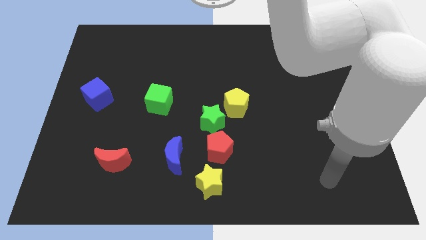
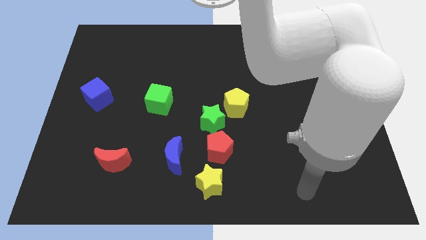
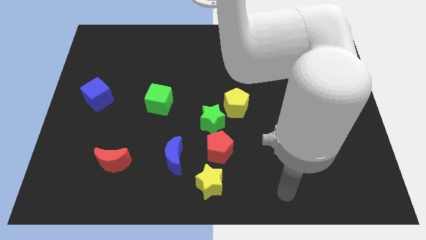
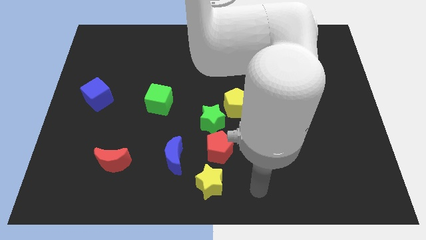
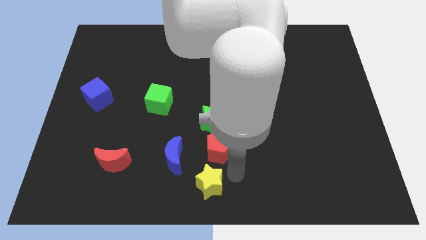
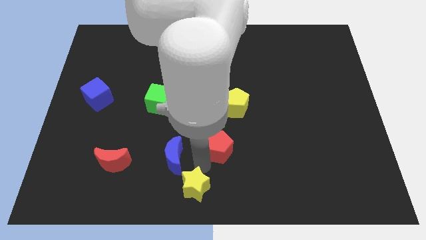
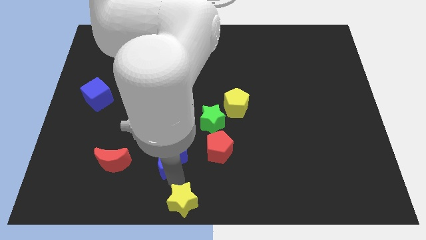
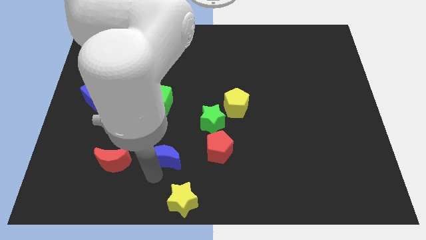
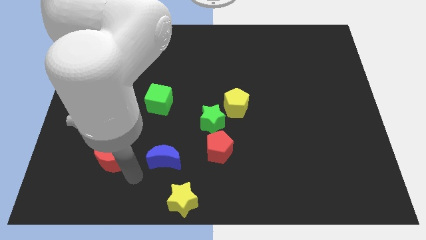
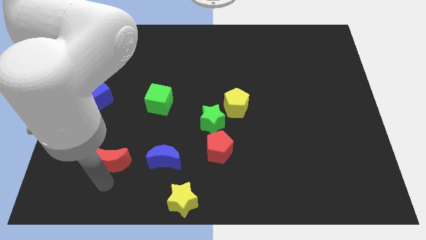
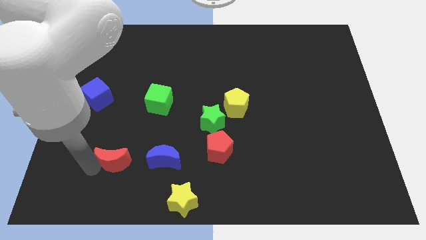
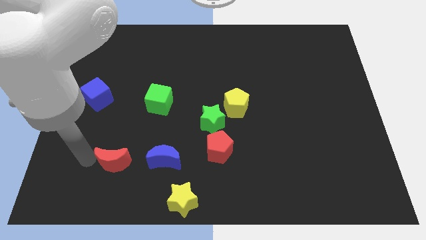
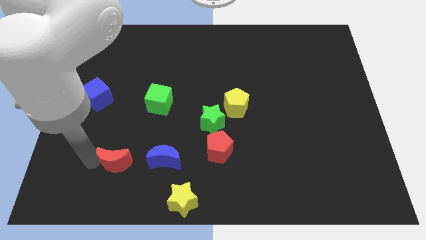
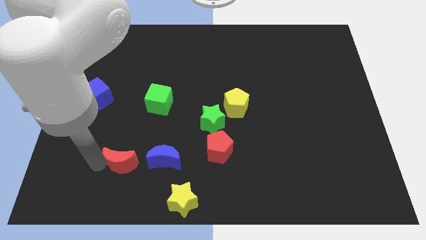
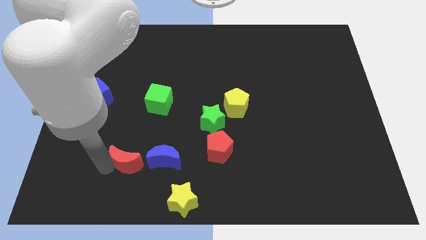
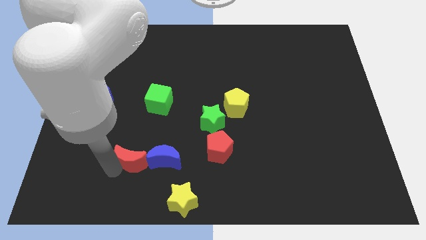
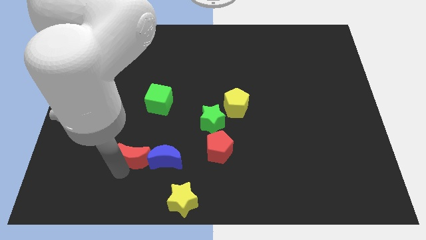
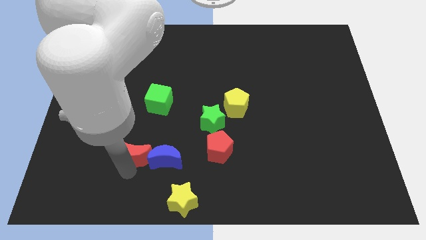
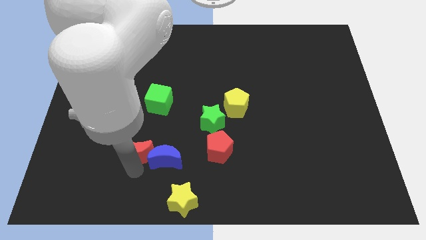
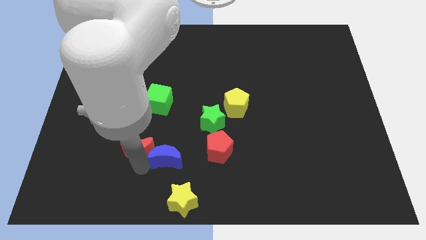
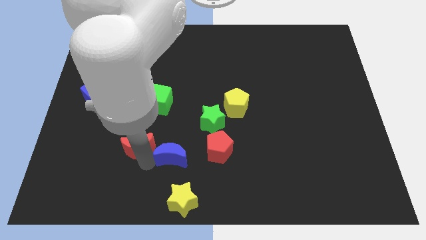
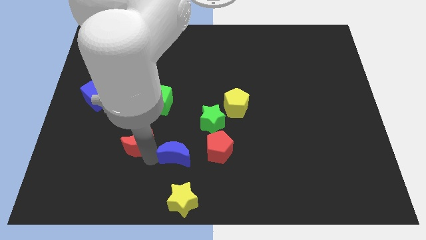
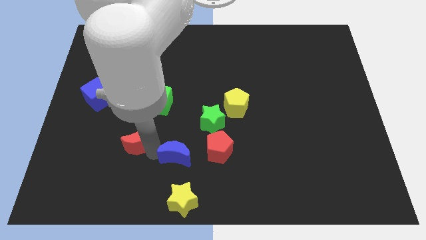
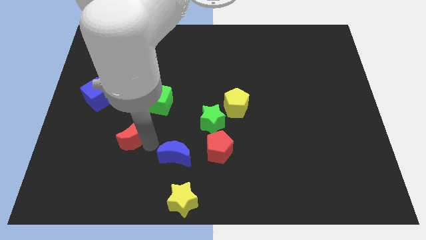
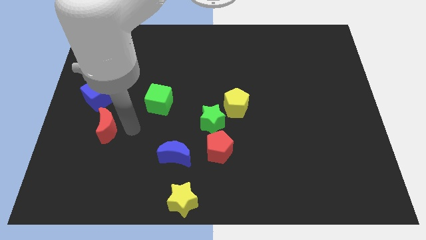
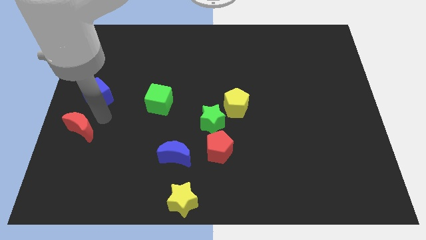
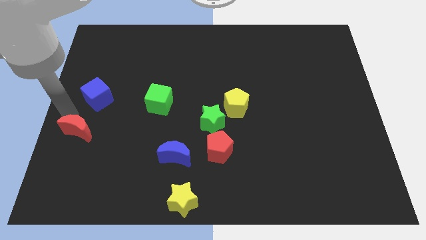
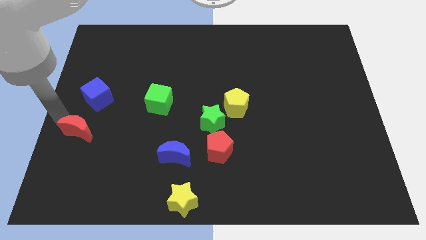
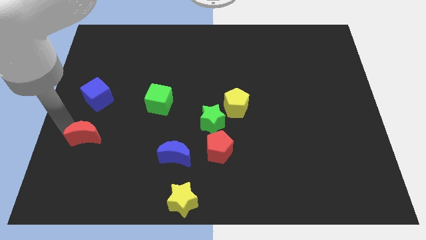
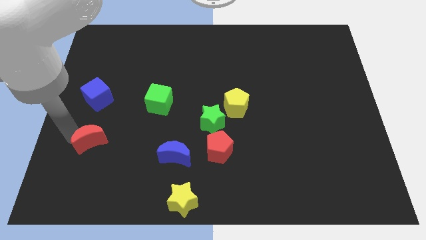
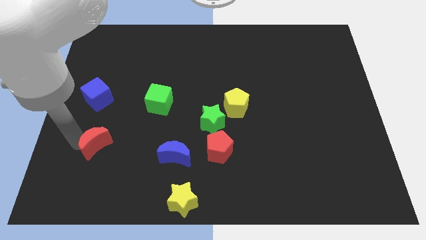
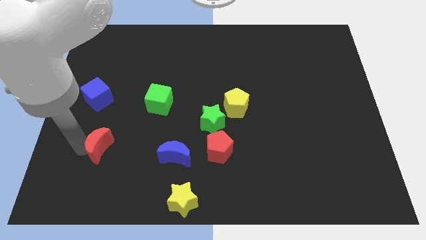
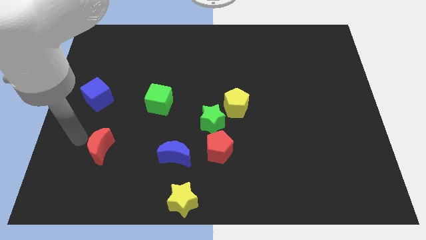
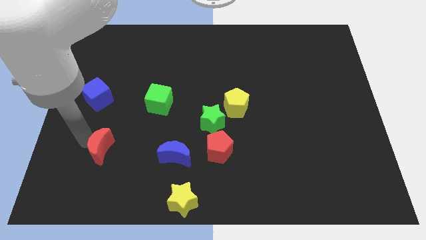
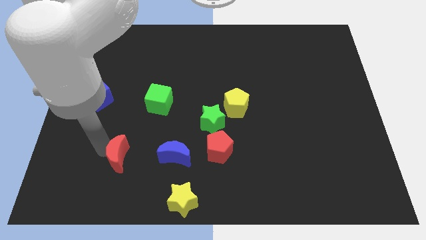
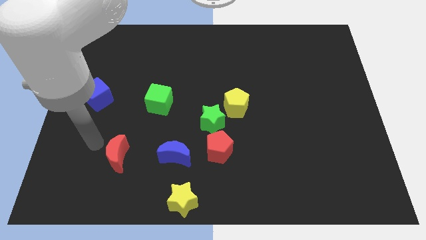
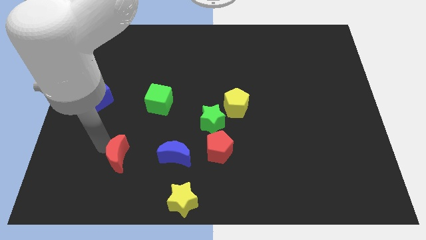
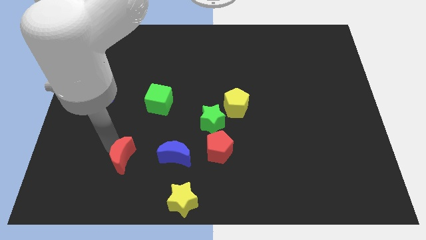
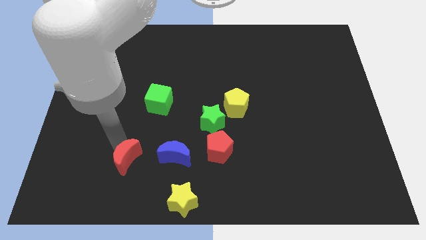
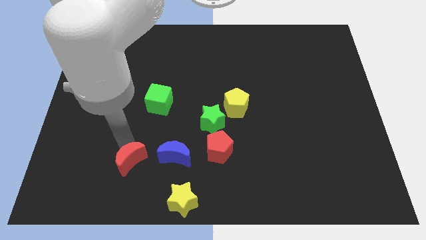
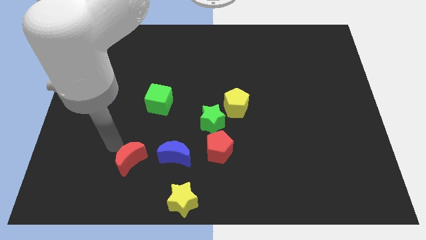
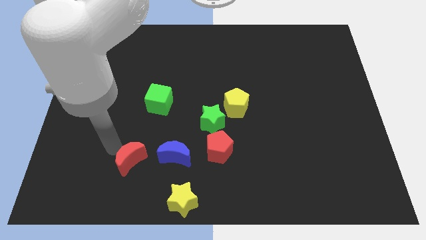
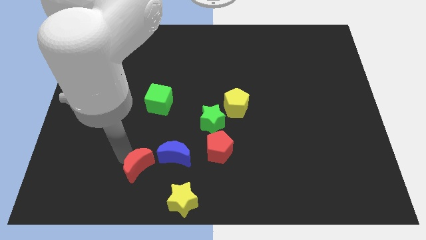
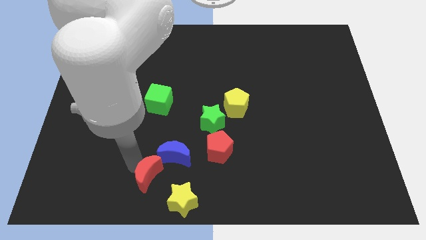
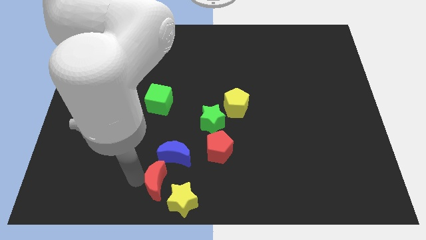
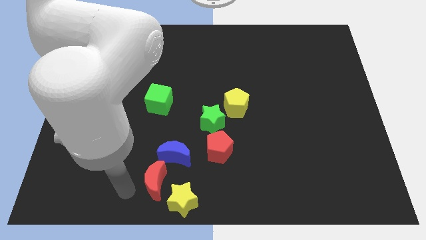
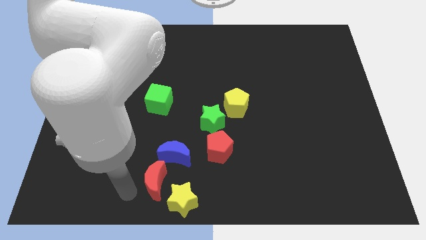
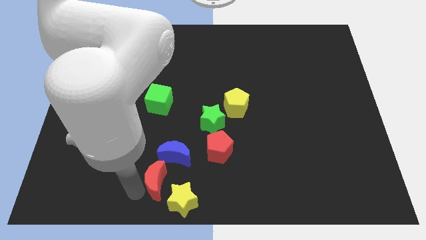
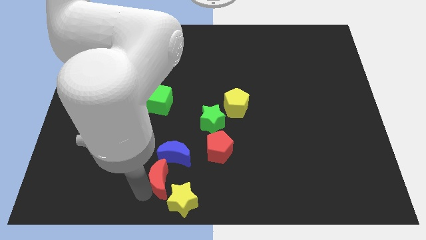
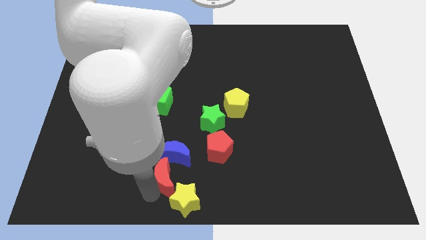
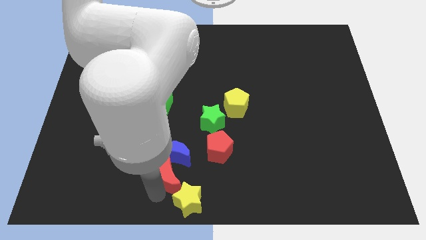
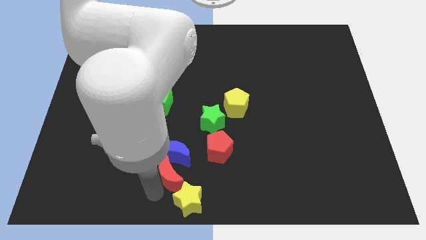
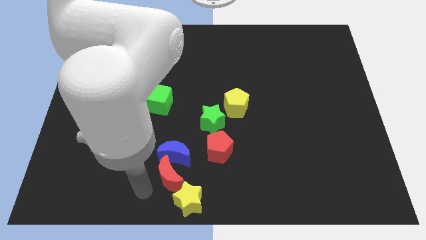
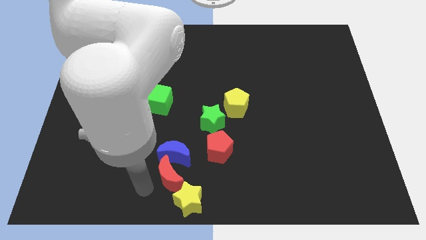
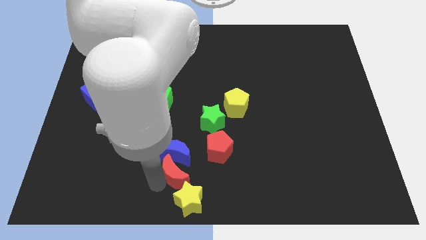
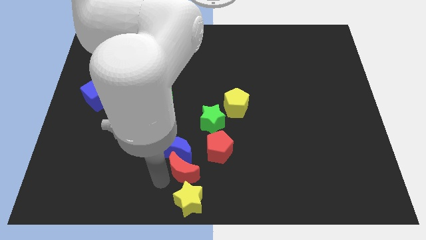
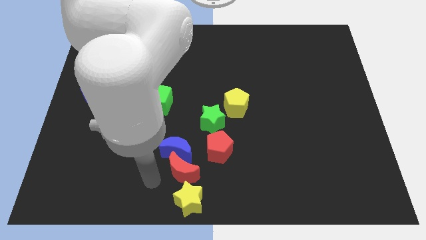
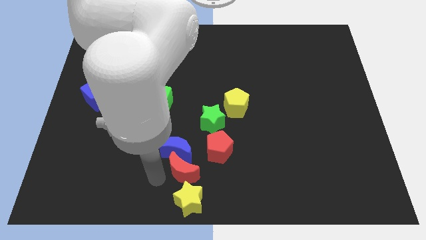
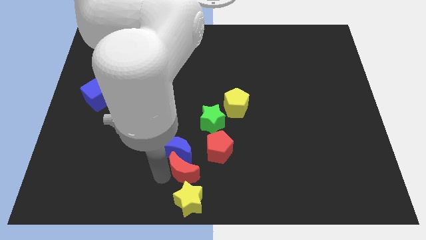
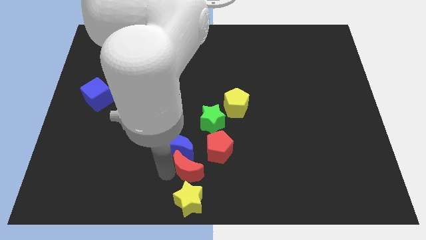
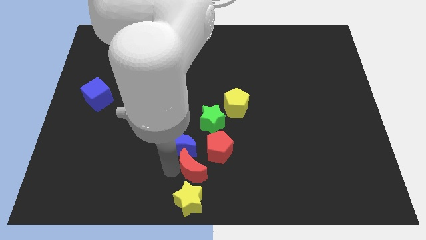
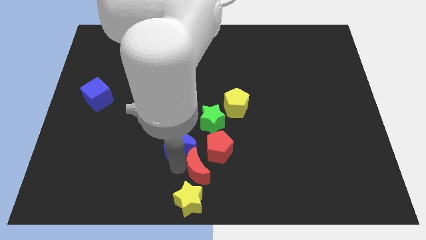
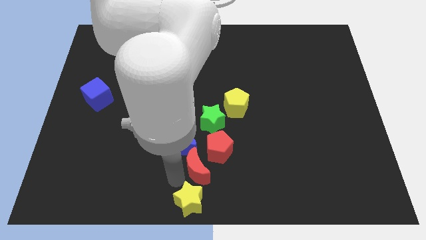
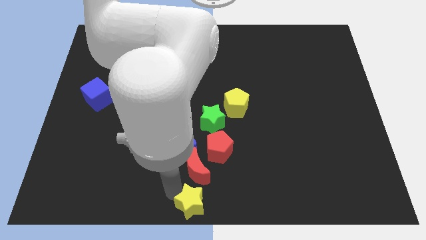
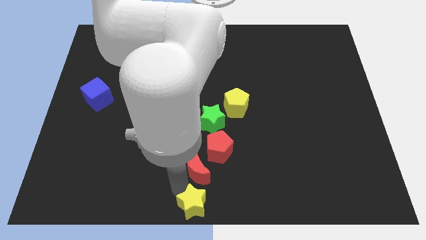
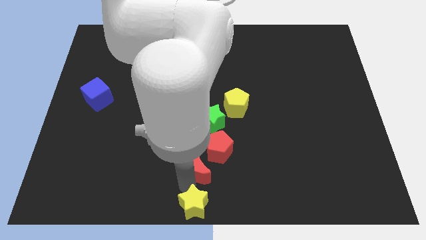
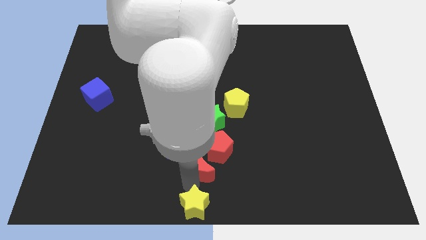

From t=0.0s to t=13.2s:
slide the red moon close to the red pentagon
